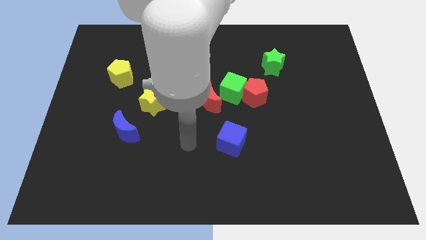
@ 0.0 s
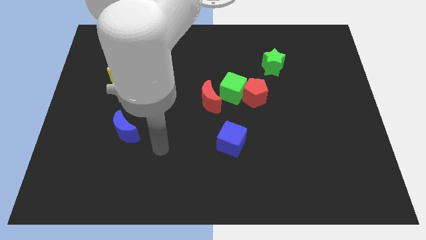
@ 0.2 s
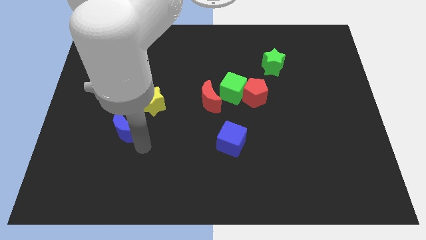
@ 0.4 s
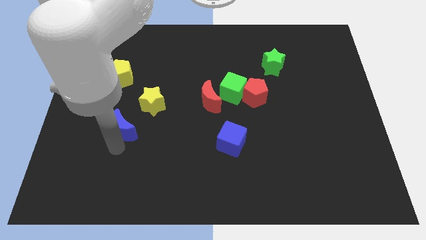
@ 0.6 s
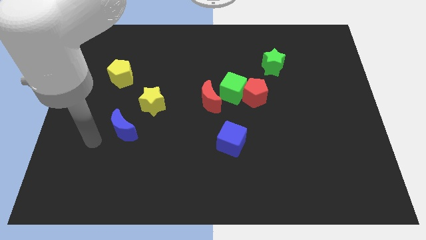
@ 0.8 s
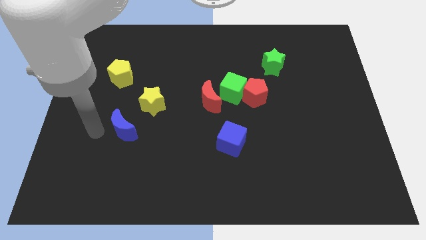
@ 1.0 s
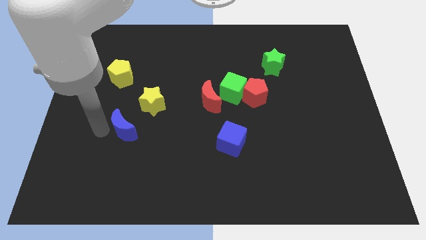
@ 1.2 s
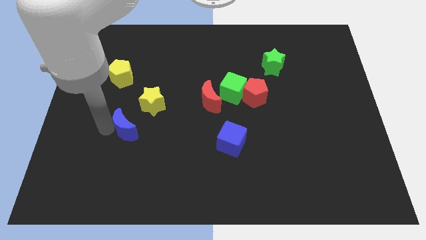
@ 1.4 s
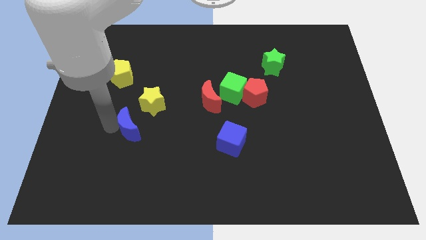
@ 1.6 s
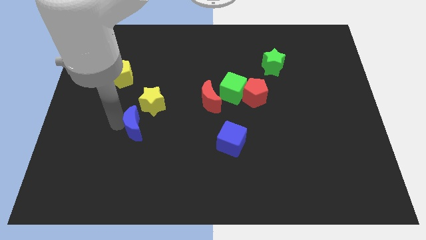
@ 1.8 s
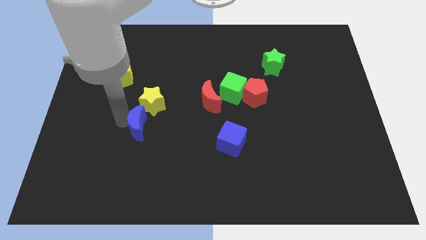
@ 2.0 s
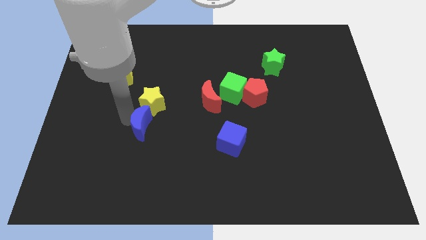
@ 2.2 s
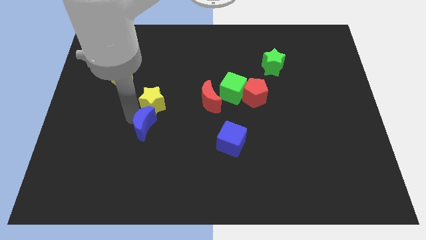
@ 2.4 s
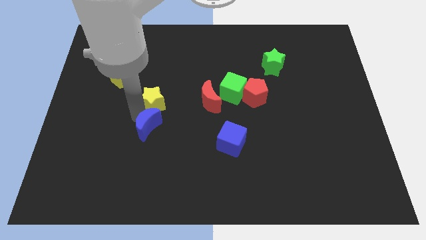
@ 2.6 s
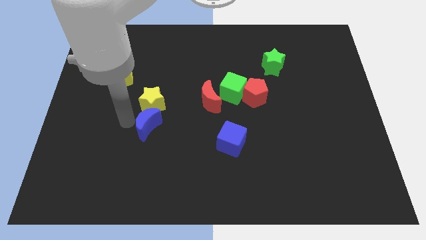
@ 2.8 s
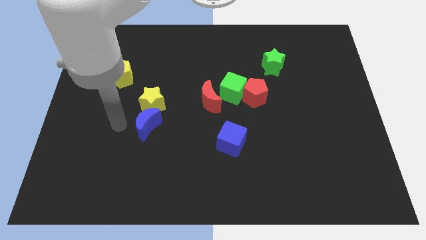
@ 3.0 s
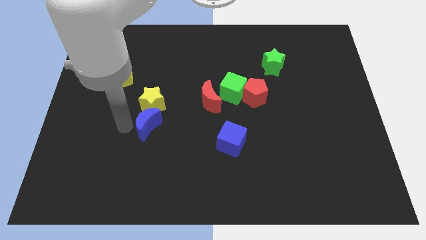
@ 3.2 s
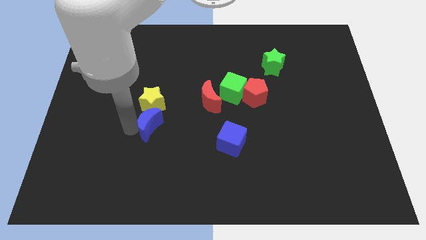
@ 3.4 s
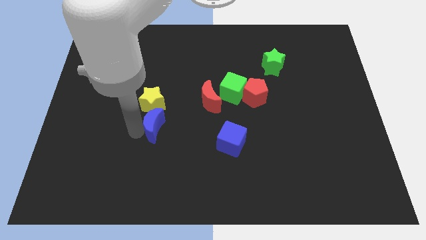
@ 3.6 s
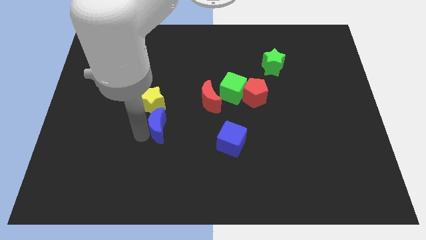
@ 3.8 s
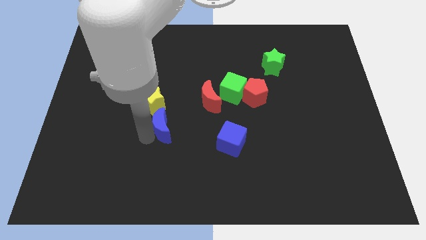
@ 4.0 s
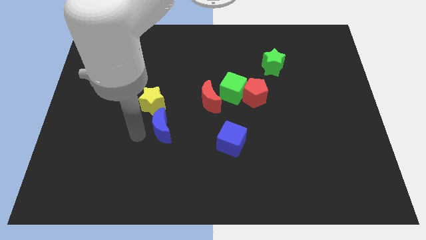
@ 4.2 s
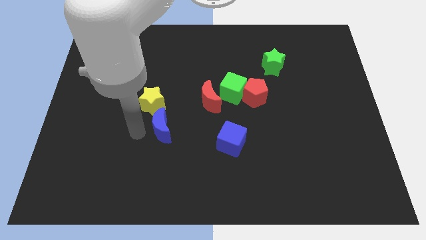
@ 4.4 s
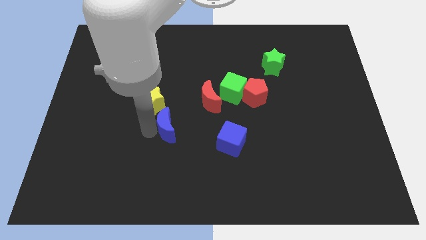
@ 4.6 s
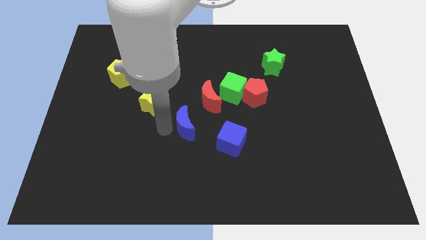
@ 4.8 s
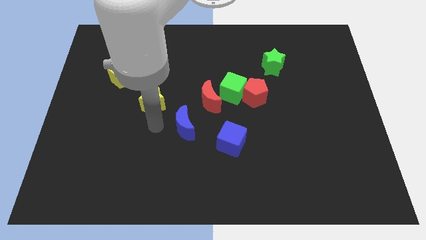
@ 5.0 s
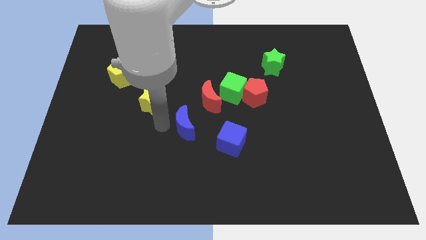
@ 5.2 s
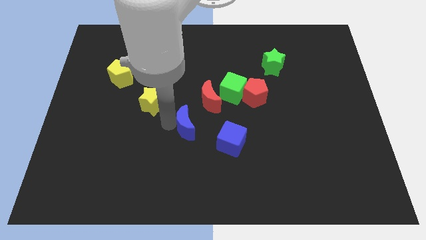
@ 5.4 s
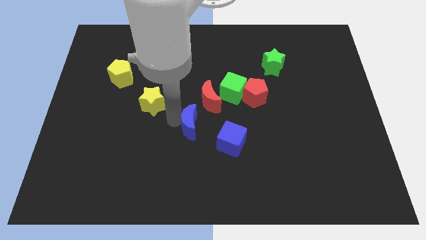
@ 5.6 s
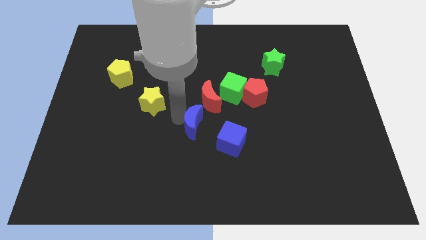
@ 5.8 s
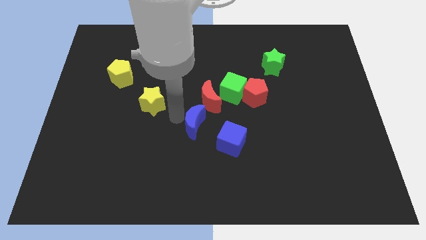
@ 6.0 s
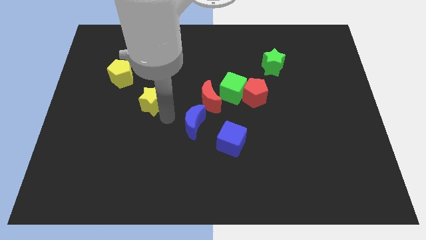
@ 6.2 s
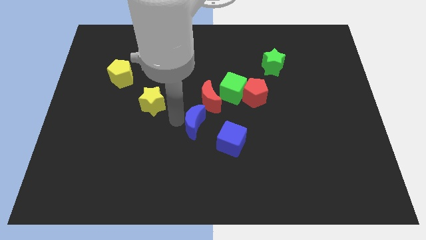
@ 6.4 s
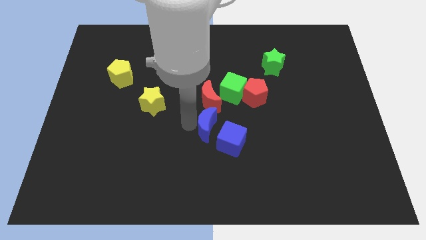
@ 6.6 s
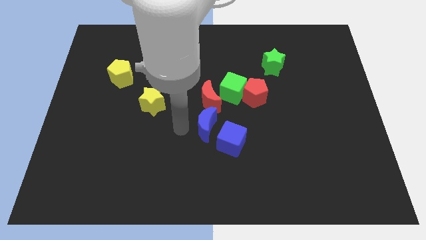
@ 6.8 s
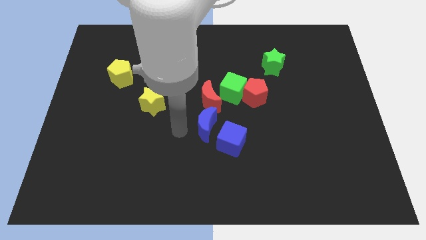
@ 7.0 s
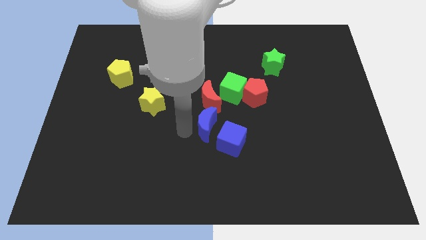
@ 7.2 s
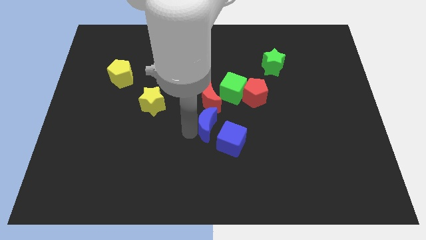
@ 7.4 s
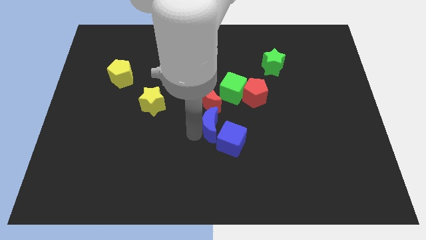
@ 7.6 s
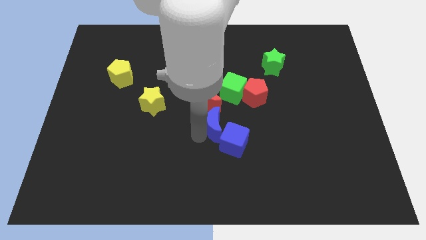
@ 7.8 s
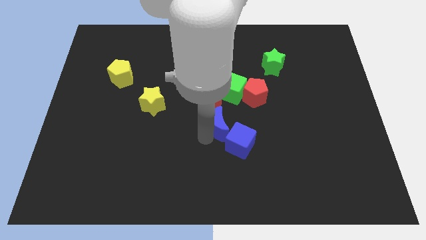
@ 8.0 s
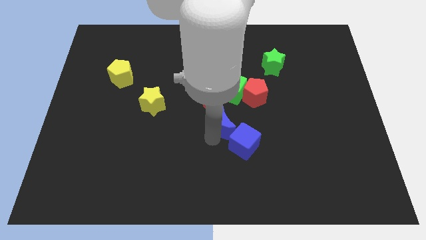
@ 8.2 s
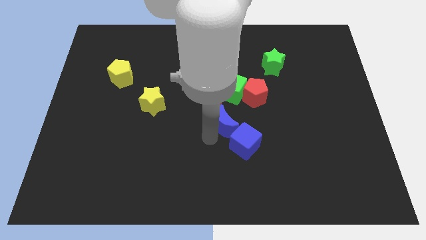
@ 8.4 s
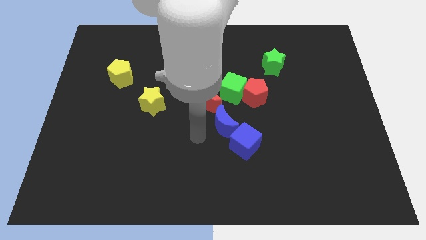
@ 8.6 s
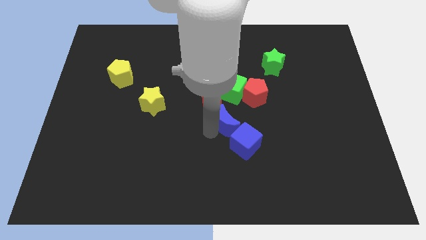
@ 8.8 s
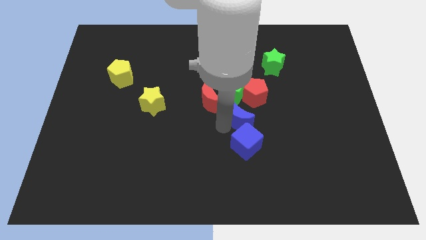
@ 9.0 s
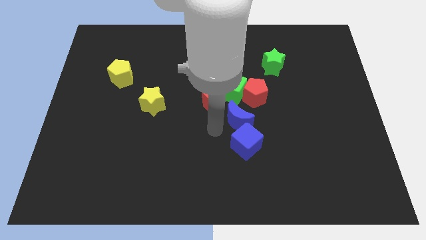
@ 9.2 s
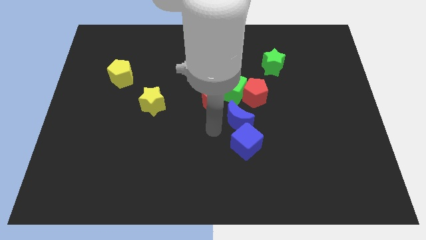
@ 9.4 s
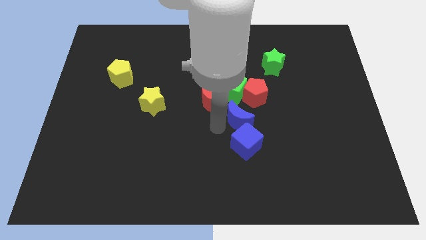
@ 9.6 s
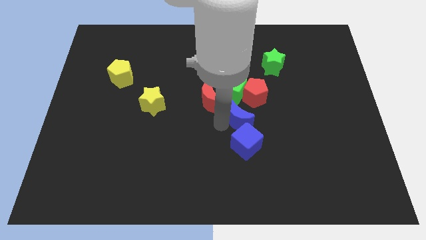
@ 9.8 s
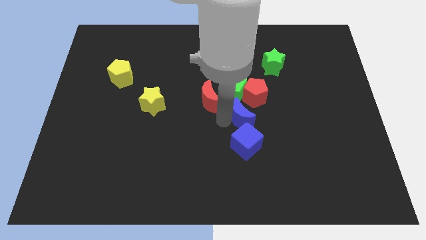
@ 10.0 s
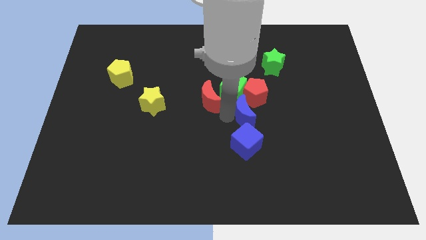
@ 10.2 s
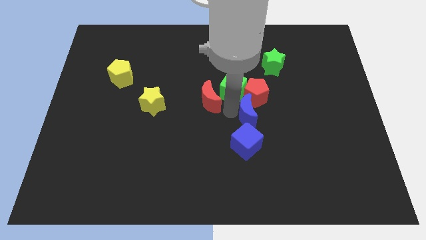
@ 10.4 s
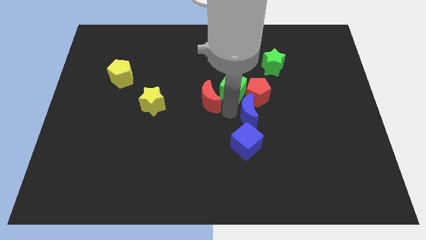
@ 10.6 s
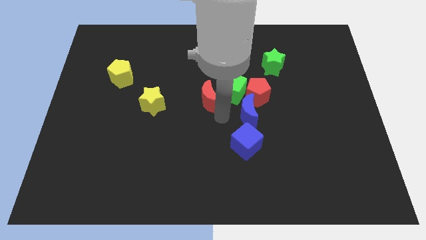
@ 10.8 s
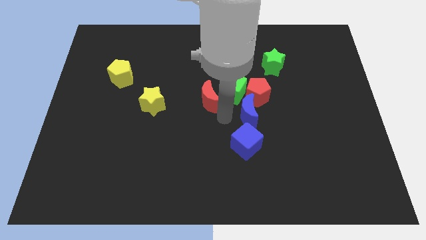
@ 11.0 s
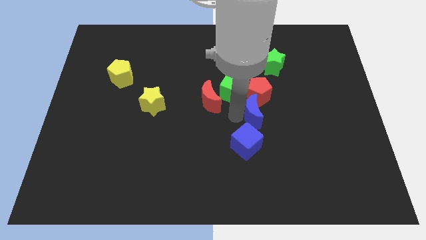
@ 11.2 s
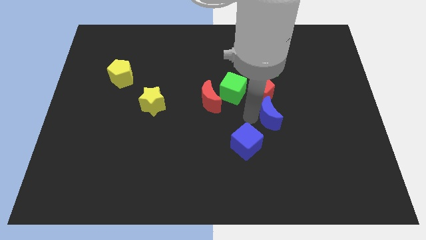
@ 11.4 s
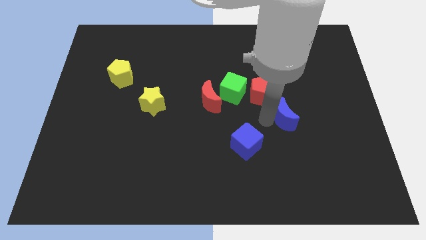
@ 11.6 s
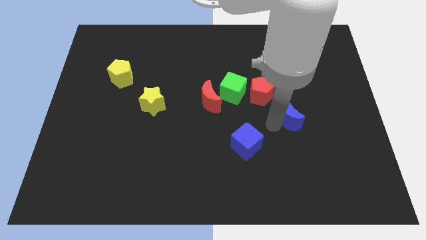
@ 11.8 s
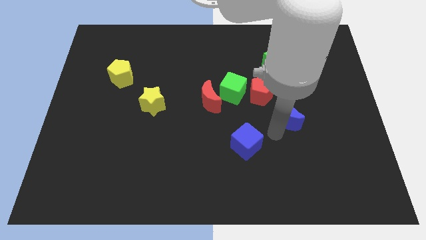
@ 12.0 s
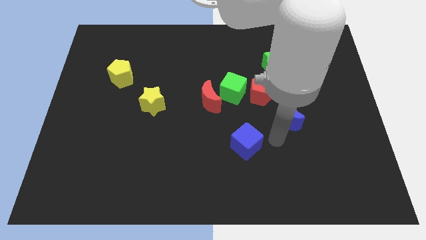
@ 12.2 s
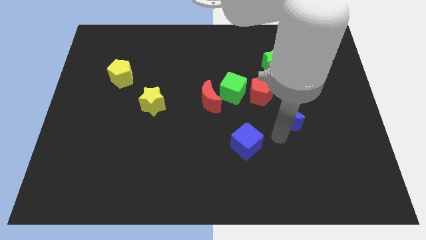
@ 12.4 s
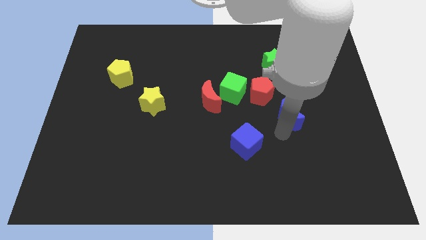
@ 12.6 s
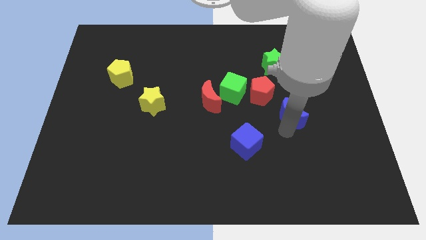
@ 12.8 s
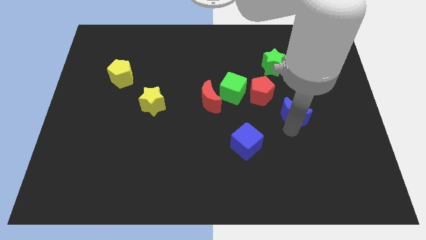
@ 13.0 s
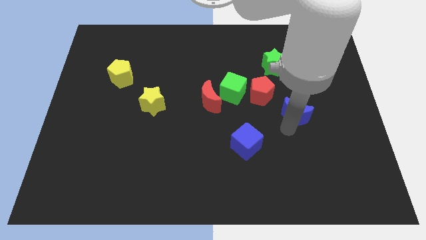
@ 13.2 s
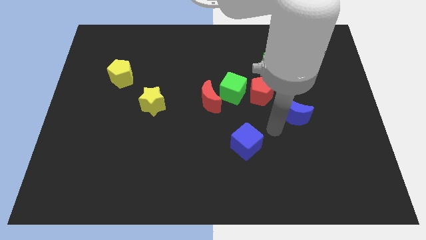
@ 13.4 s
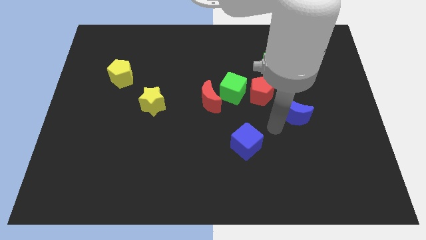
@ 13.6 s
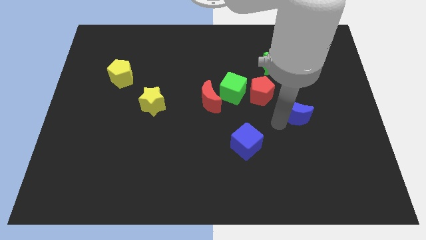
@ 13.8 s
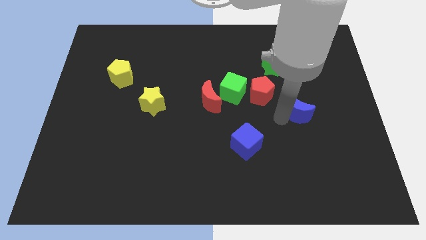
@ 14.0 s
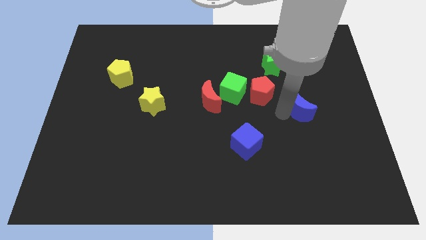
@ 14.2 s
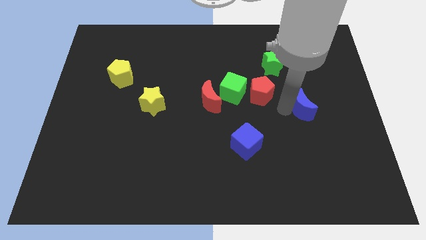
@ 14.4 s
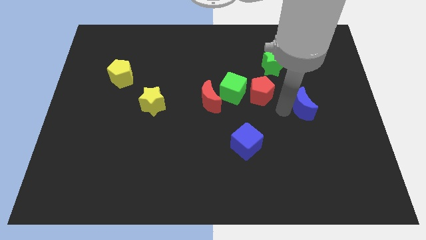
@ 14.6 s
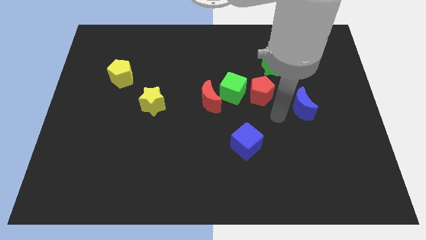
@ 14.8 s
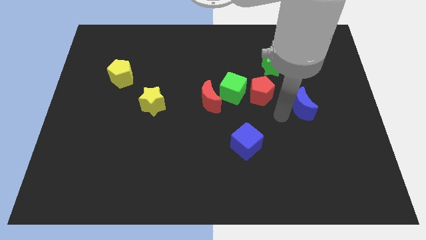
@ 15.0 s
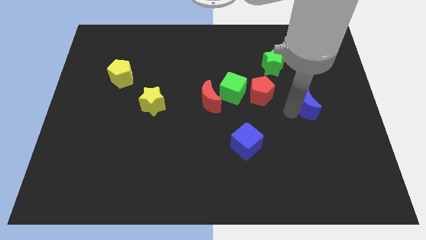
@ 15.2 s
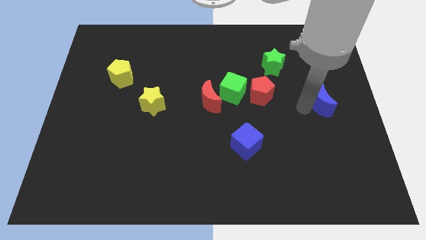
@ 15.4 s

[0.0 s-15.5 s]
push the blue moon to the right side
